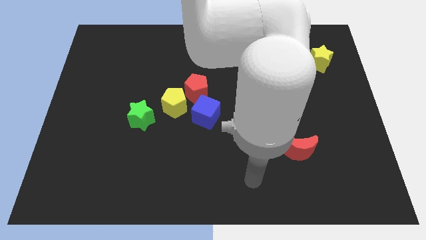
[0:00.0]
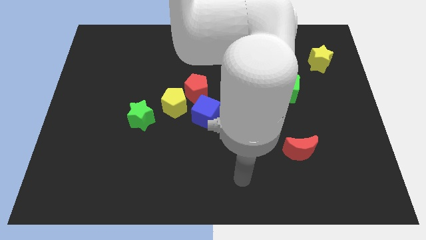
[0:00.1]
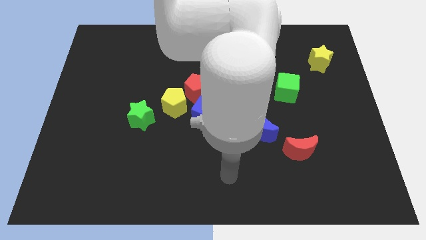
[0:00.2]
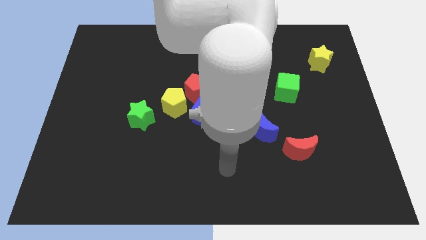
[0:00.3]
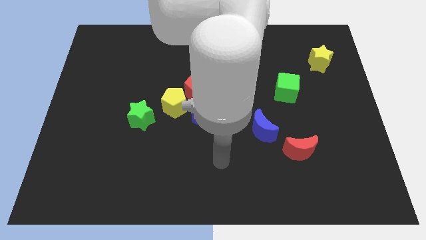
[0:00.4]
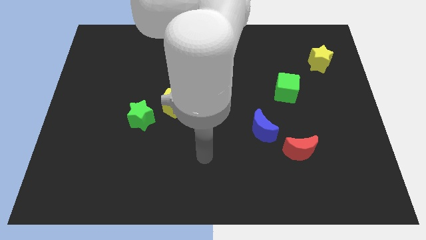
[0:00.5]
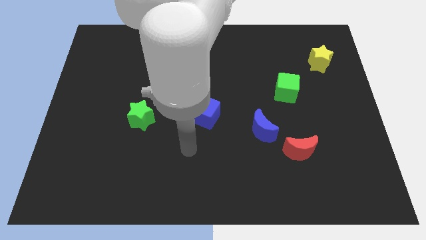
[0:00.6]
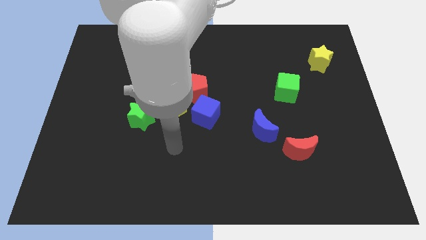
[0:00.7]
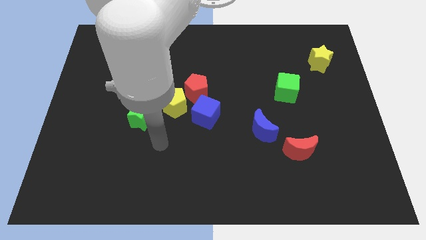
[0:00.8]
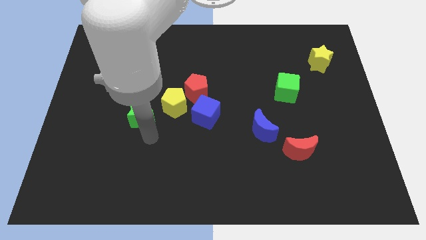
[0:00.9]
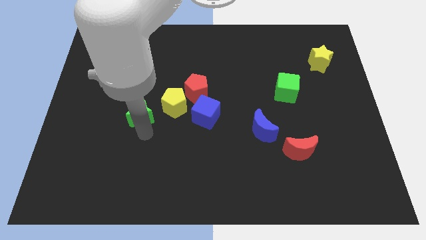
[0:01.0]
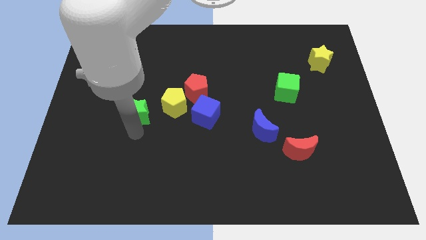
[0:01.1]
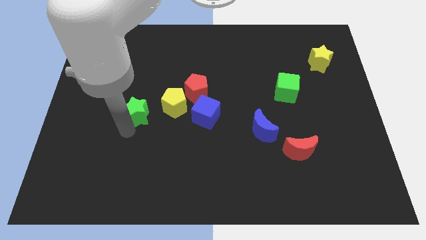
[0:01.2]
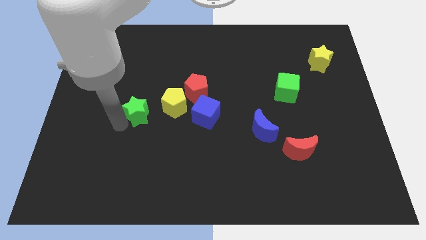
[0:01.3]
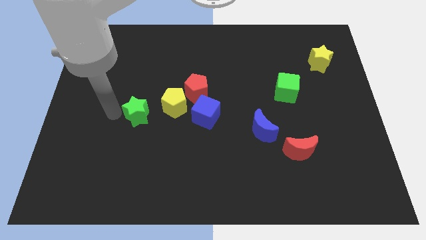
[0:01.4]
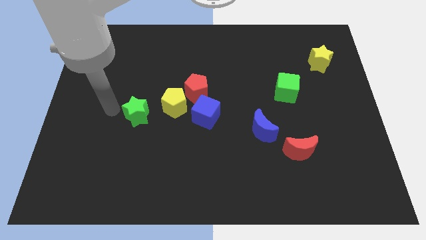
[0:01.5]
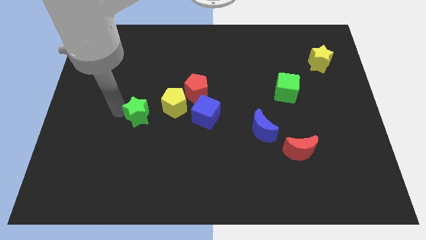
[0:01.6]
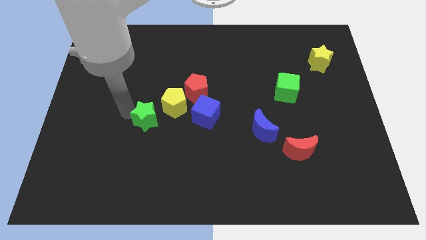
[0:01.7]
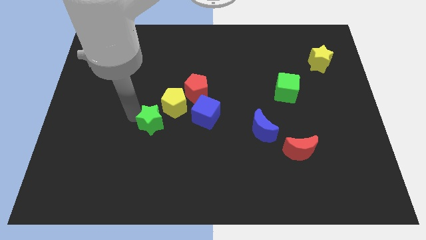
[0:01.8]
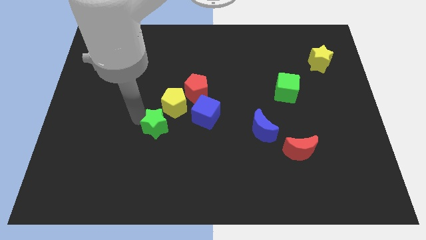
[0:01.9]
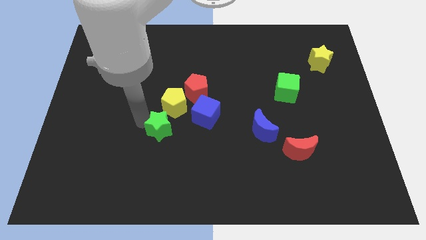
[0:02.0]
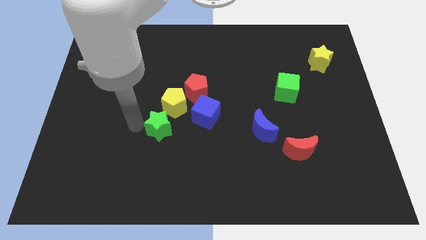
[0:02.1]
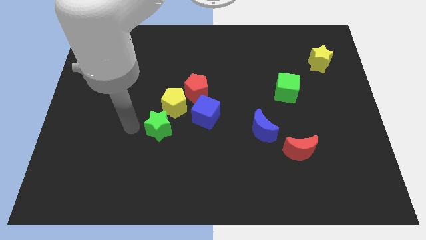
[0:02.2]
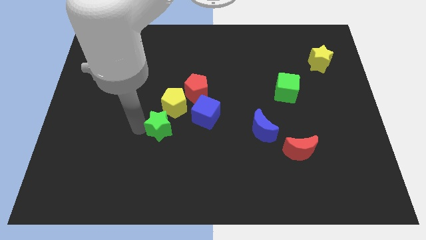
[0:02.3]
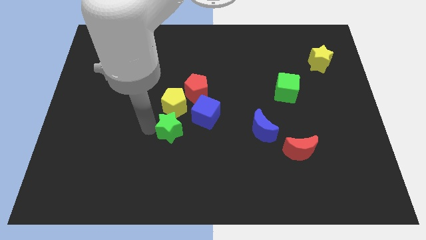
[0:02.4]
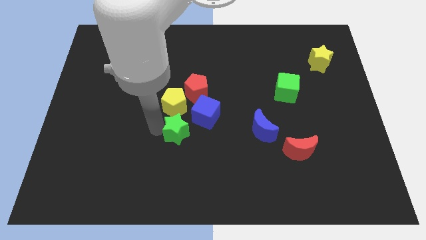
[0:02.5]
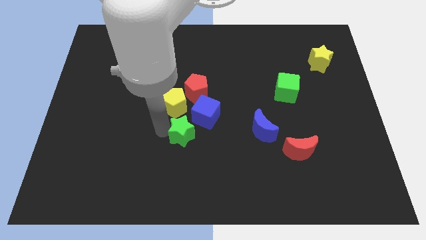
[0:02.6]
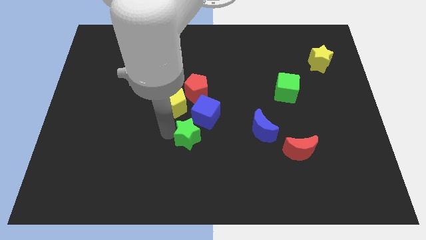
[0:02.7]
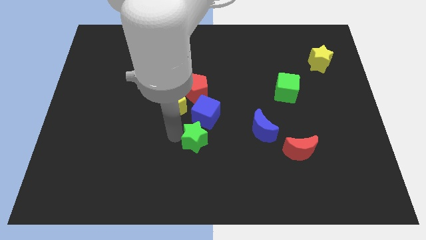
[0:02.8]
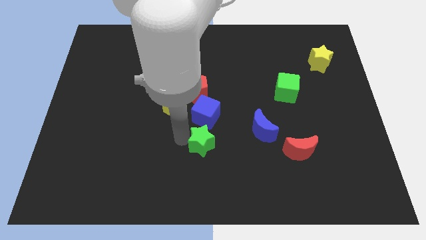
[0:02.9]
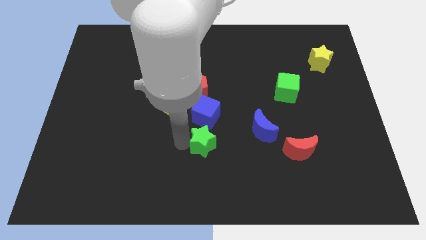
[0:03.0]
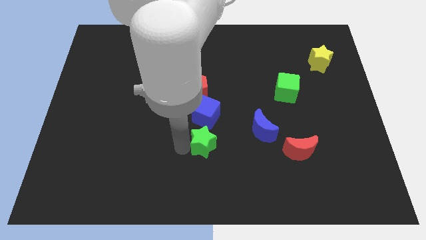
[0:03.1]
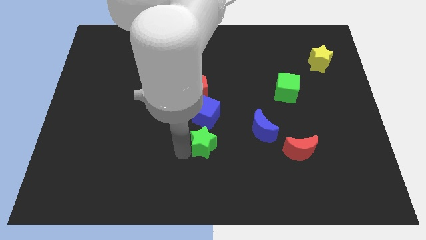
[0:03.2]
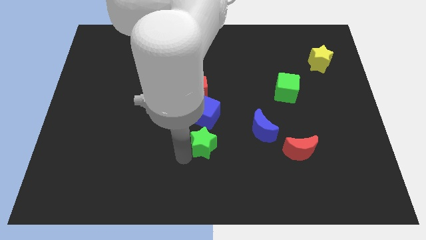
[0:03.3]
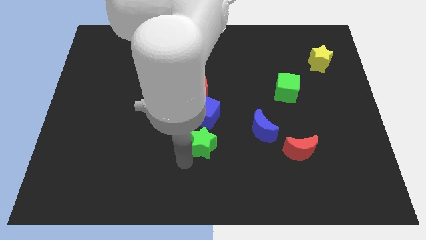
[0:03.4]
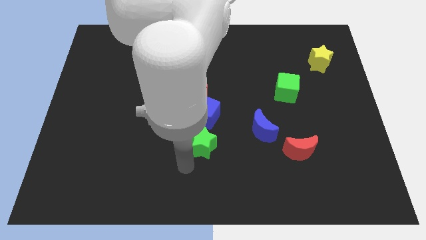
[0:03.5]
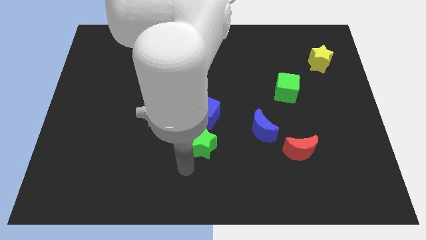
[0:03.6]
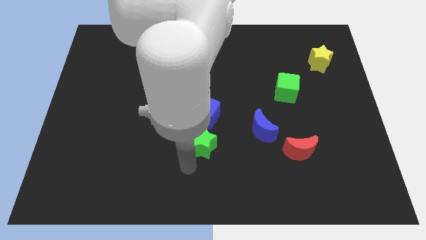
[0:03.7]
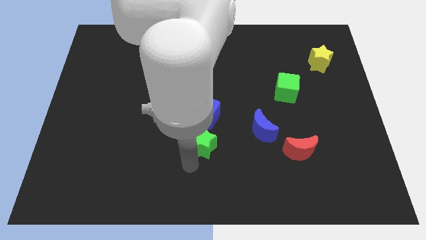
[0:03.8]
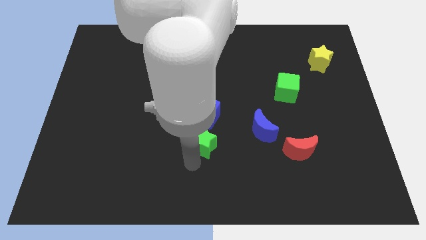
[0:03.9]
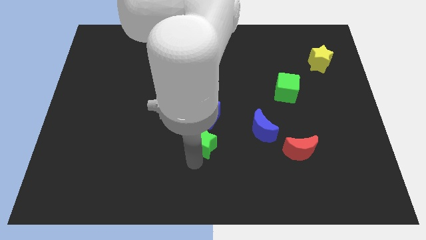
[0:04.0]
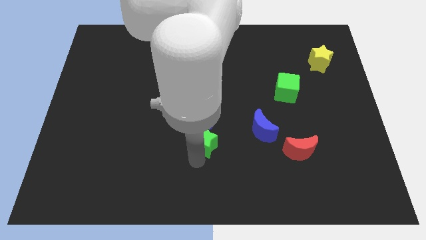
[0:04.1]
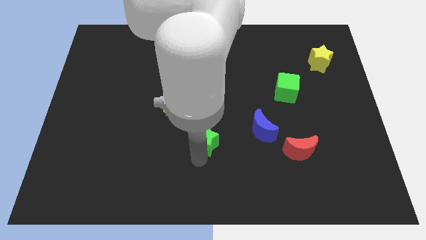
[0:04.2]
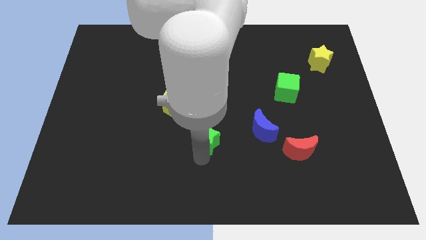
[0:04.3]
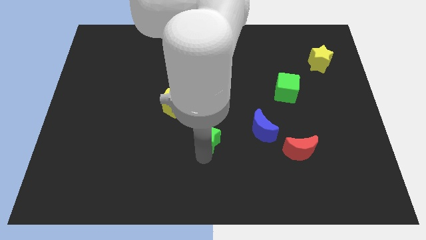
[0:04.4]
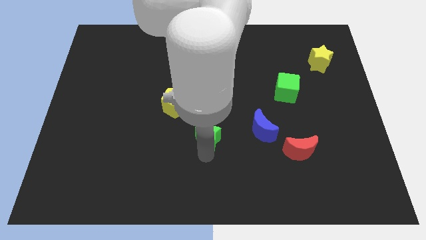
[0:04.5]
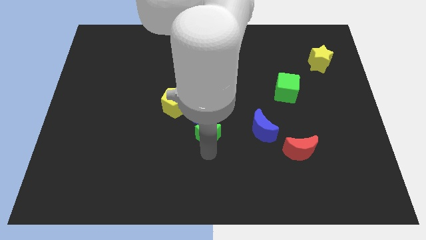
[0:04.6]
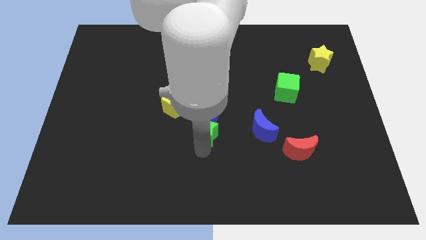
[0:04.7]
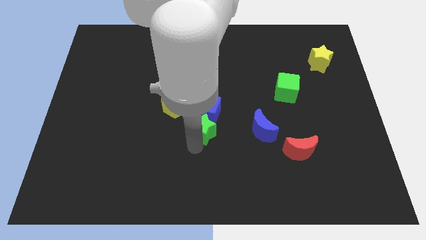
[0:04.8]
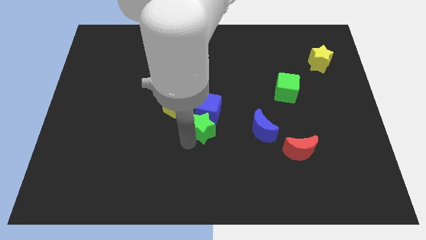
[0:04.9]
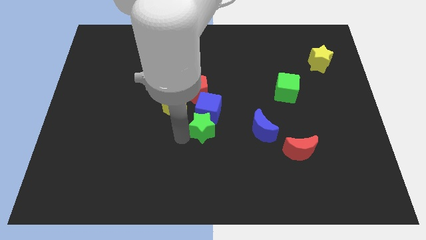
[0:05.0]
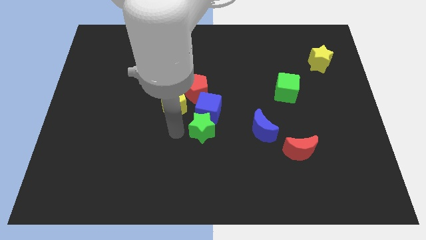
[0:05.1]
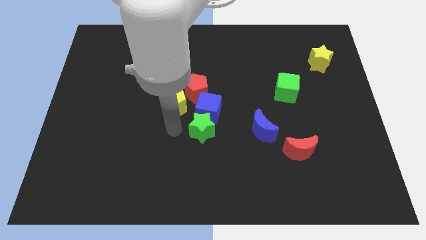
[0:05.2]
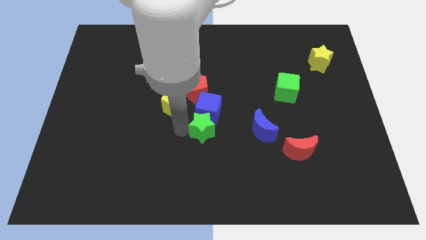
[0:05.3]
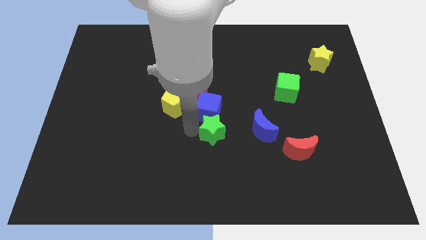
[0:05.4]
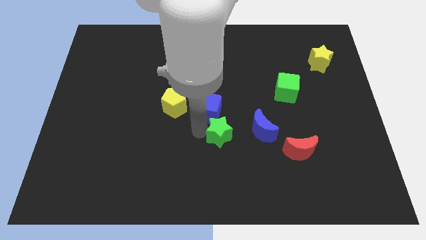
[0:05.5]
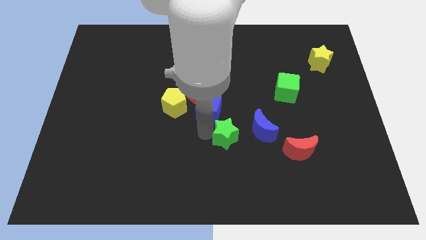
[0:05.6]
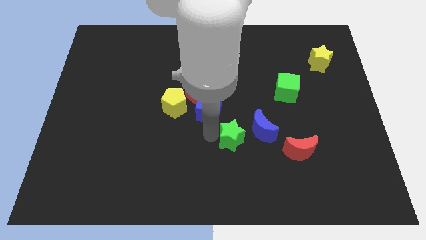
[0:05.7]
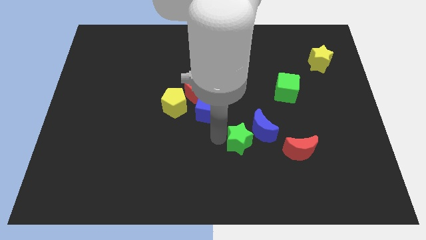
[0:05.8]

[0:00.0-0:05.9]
put the green star to the blue moon
